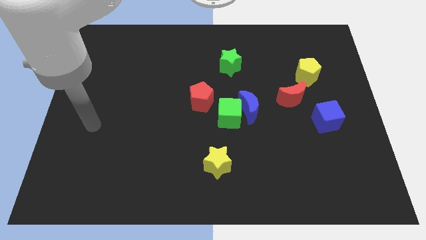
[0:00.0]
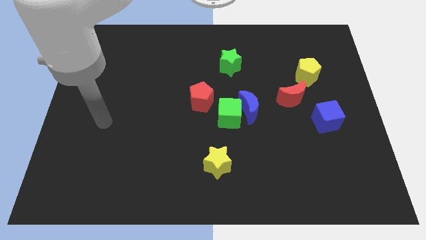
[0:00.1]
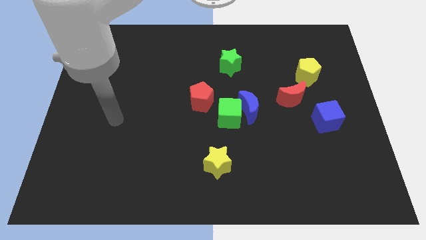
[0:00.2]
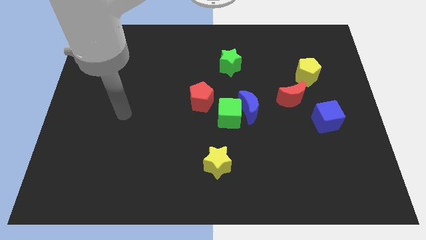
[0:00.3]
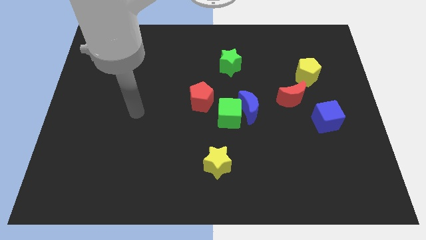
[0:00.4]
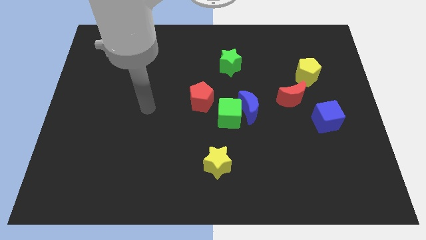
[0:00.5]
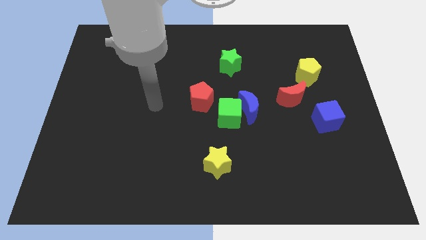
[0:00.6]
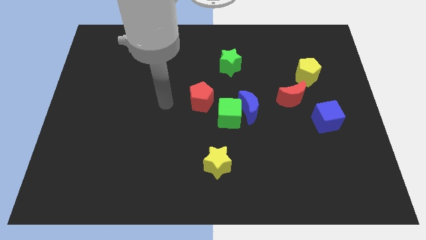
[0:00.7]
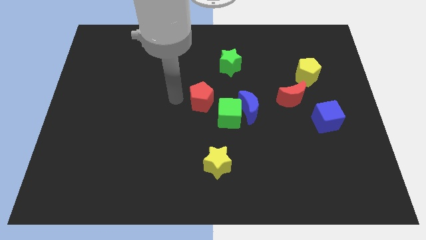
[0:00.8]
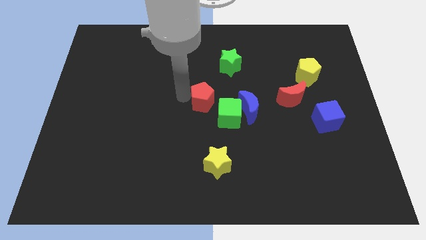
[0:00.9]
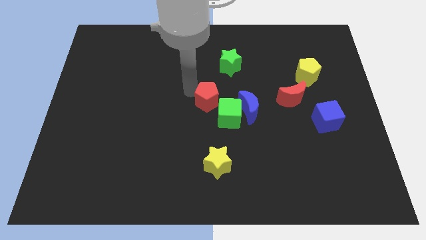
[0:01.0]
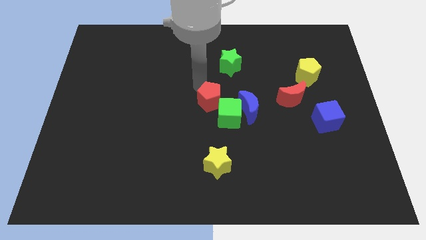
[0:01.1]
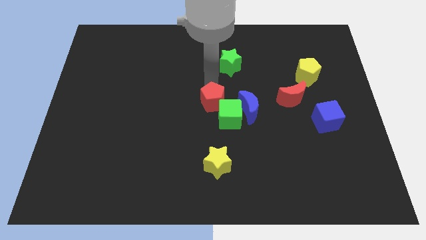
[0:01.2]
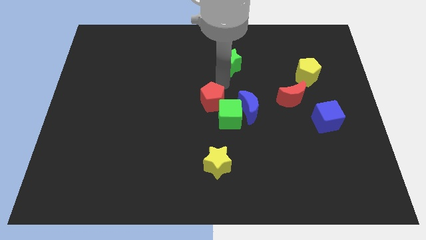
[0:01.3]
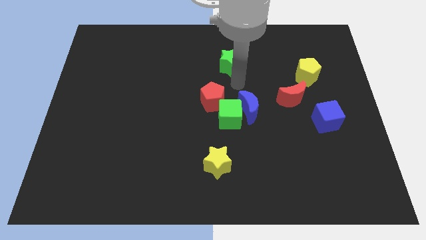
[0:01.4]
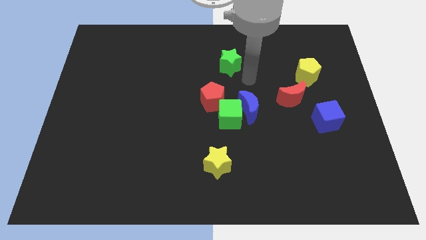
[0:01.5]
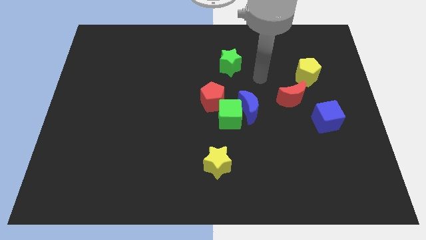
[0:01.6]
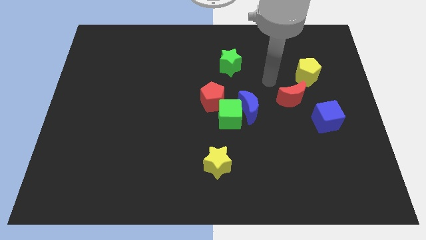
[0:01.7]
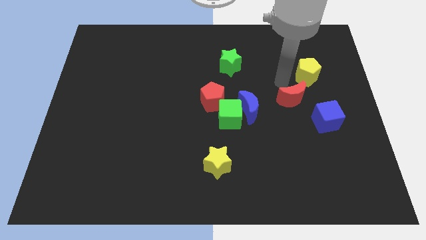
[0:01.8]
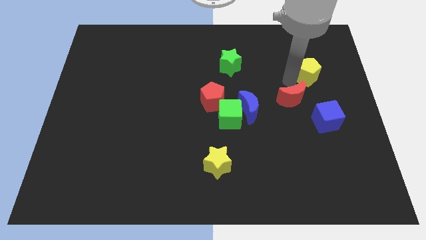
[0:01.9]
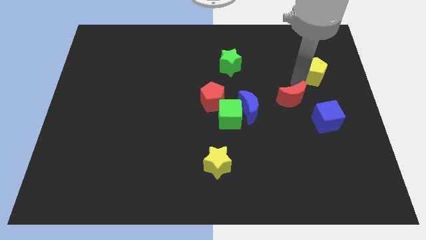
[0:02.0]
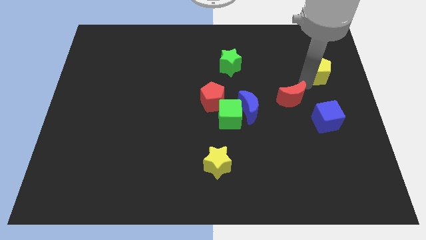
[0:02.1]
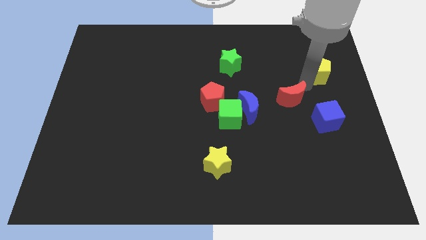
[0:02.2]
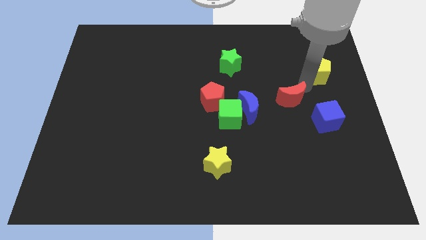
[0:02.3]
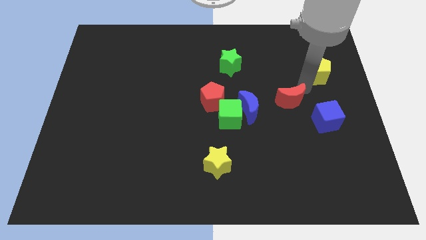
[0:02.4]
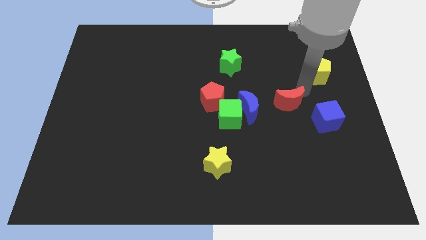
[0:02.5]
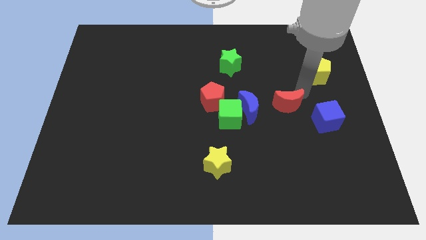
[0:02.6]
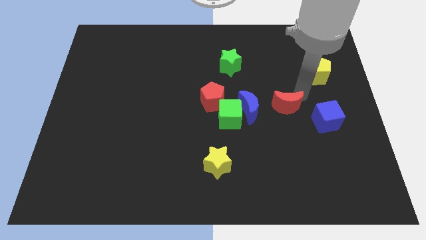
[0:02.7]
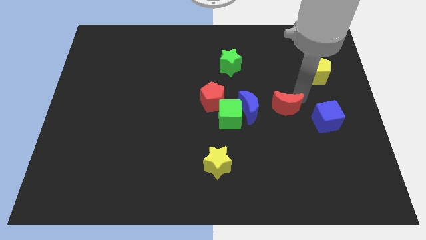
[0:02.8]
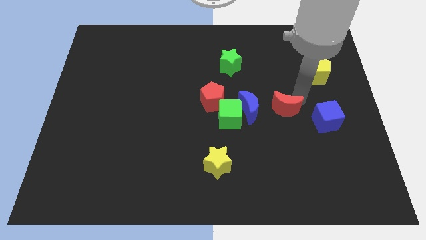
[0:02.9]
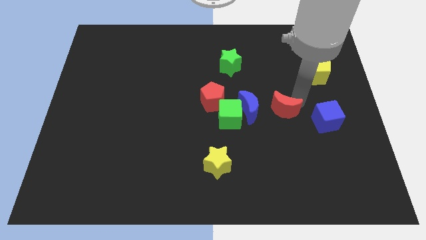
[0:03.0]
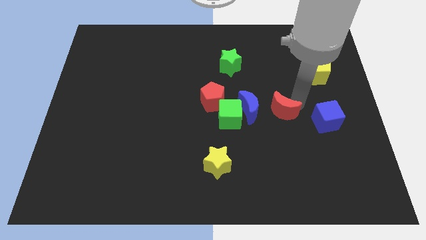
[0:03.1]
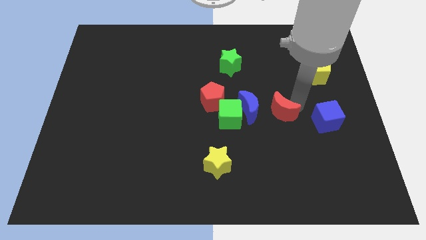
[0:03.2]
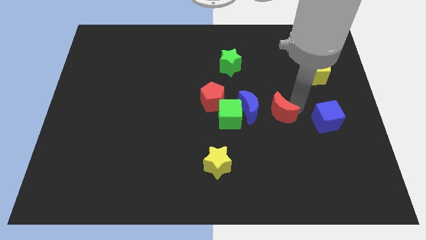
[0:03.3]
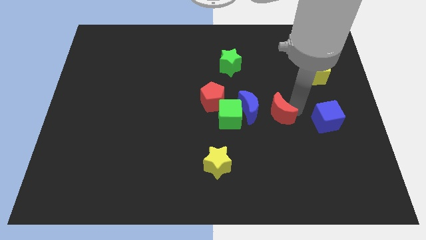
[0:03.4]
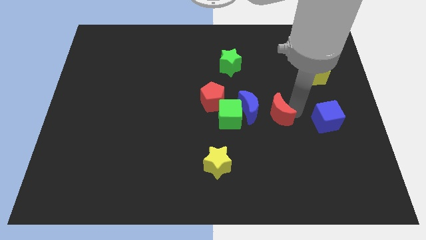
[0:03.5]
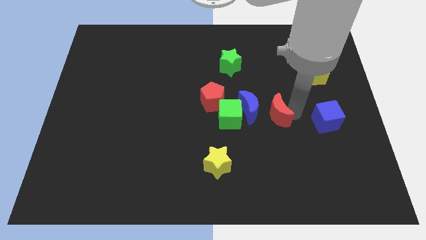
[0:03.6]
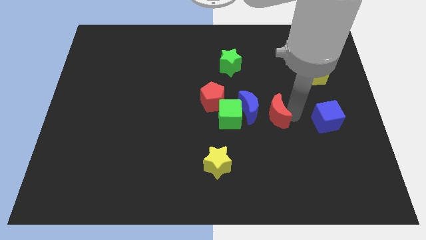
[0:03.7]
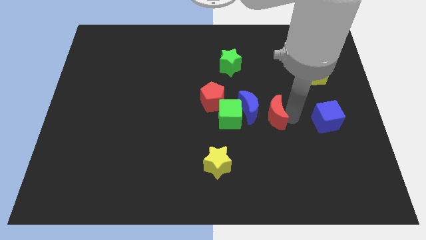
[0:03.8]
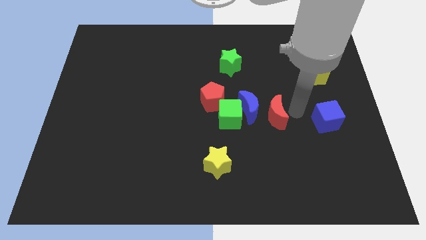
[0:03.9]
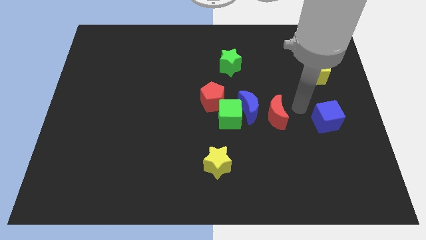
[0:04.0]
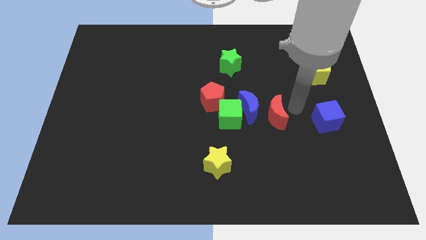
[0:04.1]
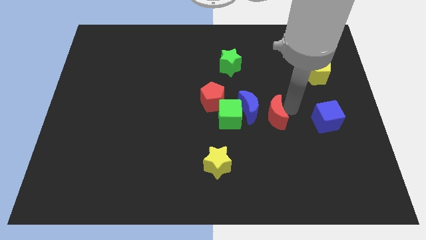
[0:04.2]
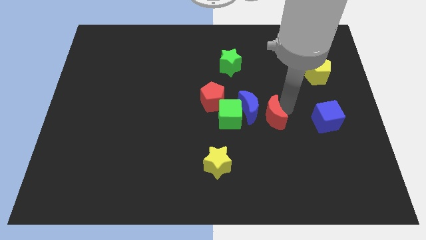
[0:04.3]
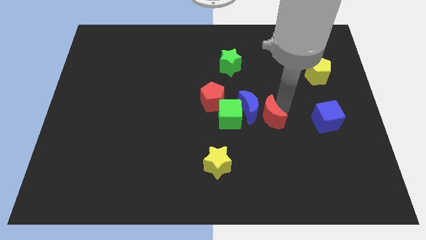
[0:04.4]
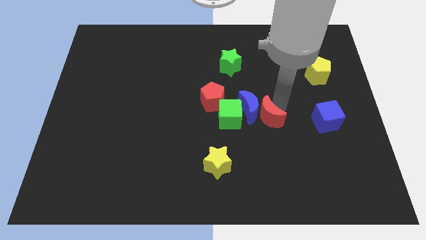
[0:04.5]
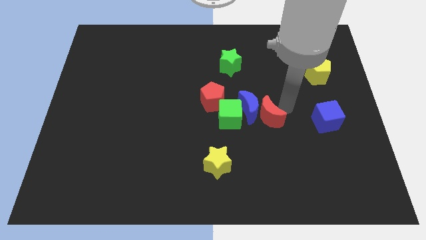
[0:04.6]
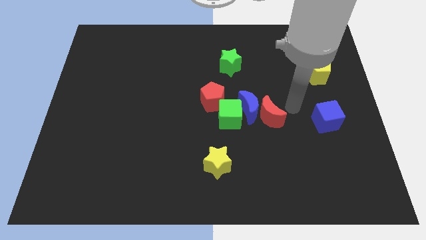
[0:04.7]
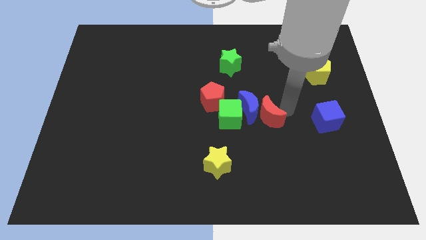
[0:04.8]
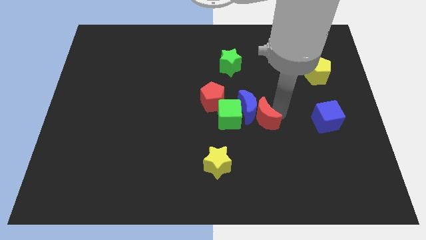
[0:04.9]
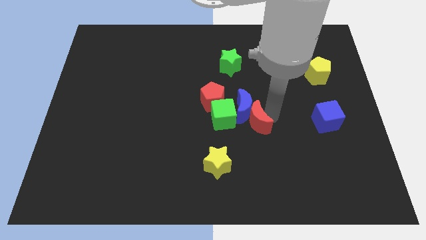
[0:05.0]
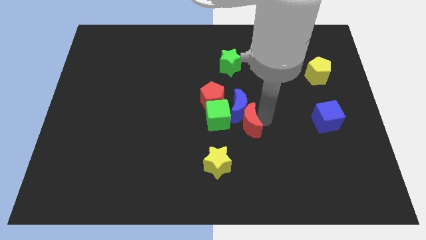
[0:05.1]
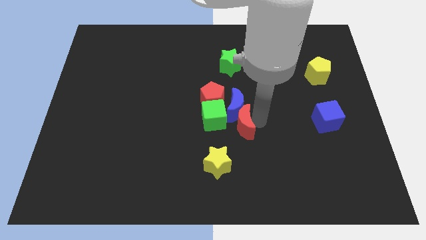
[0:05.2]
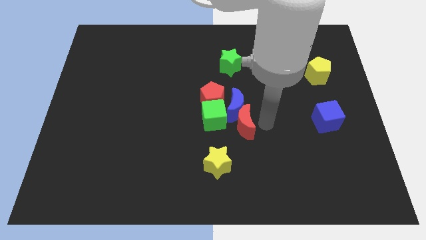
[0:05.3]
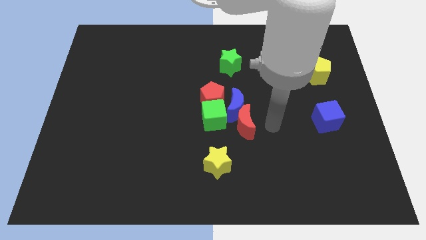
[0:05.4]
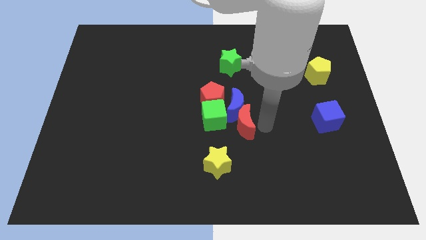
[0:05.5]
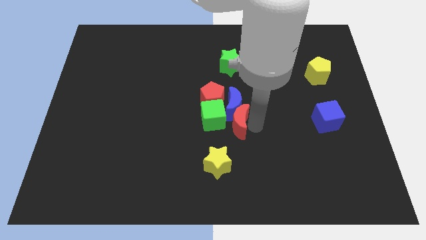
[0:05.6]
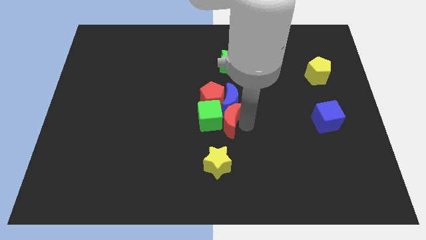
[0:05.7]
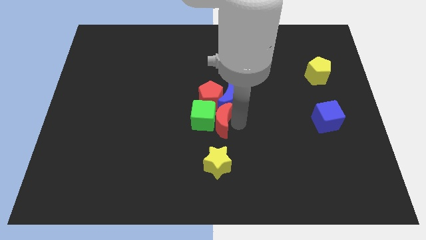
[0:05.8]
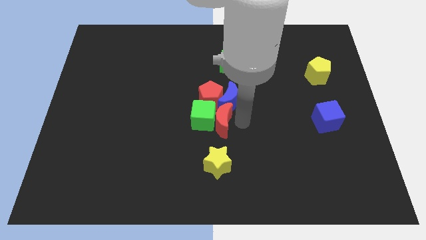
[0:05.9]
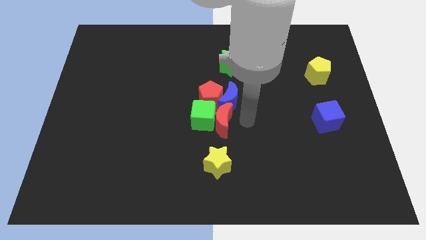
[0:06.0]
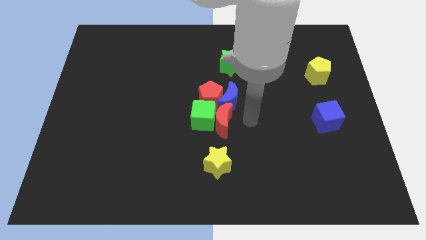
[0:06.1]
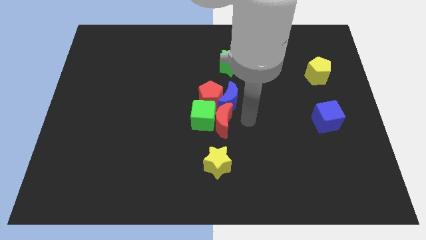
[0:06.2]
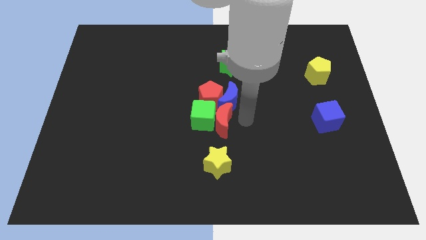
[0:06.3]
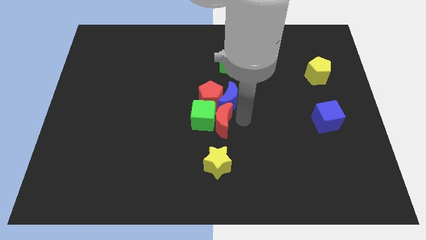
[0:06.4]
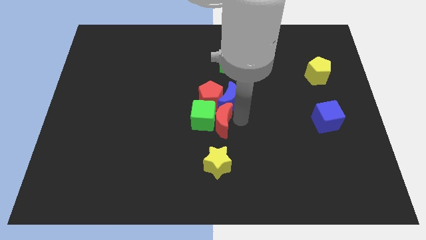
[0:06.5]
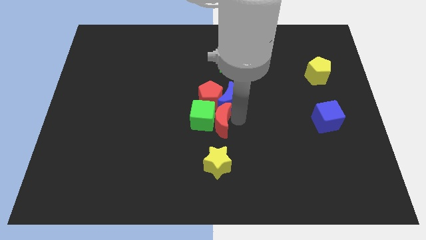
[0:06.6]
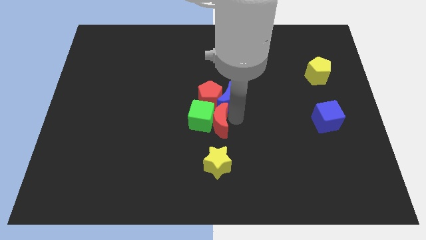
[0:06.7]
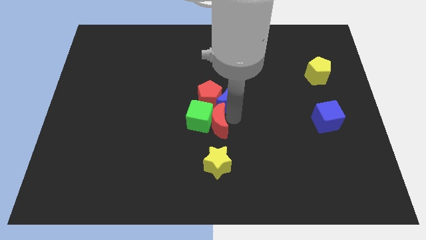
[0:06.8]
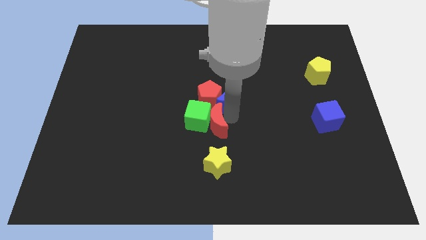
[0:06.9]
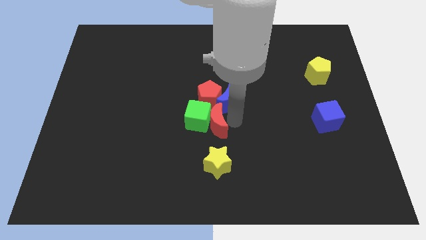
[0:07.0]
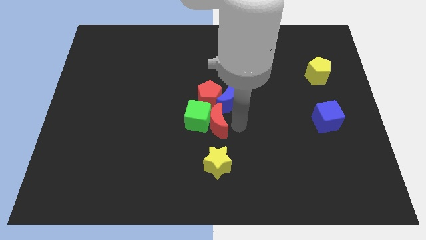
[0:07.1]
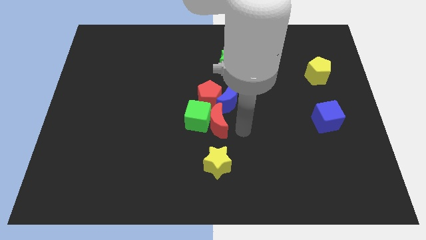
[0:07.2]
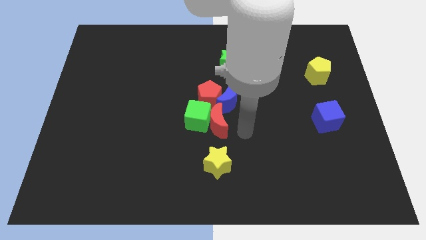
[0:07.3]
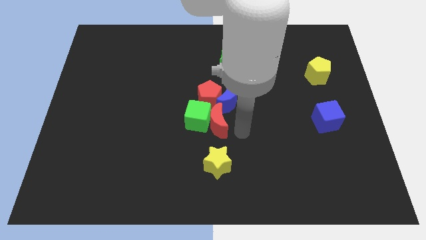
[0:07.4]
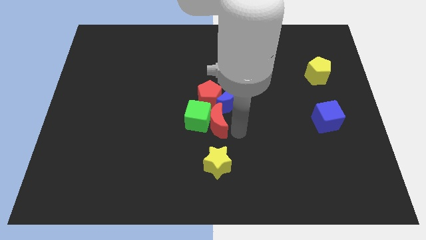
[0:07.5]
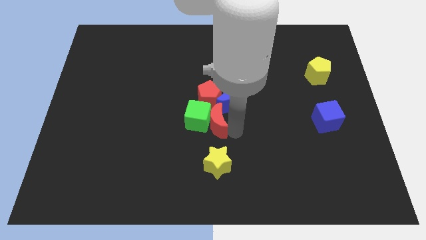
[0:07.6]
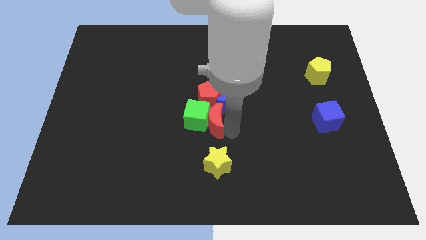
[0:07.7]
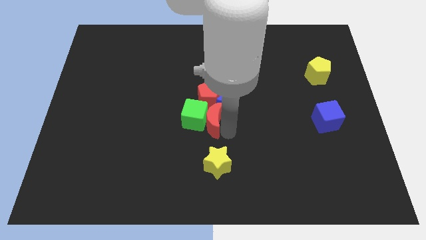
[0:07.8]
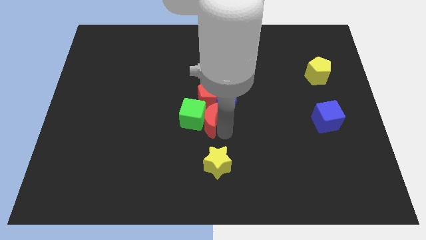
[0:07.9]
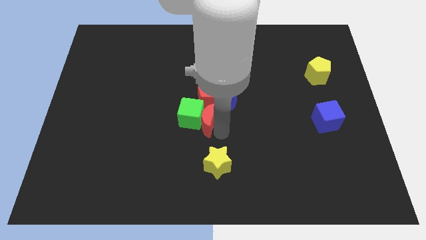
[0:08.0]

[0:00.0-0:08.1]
slide the red moon to the bottom left of the red pentagon
